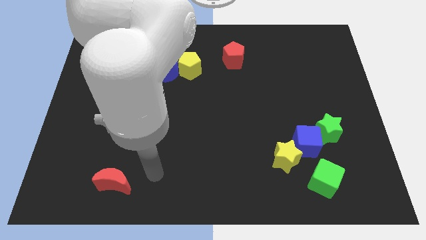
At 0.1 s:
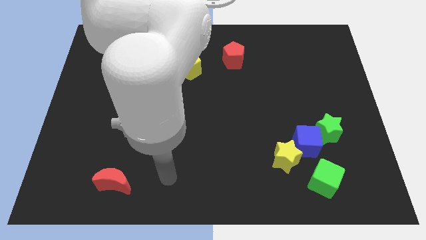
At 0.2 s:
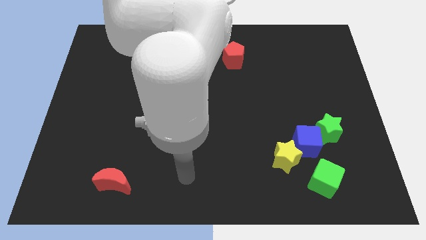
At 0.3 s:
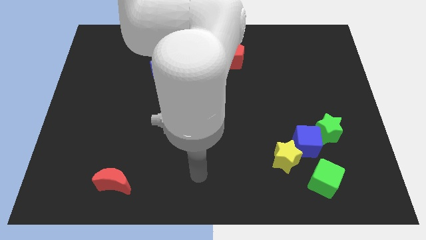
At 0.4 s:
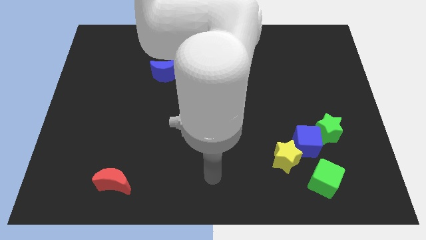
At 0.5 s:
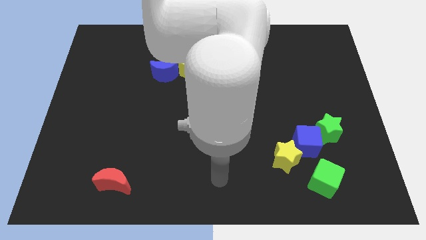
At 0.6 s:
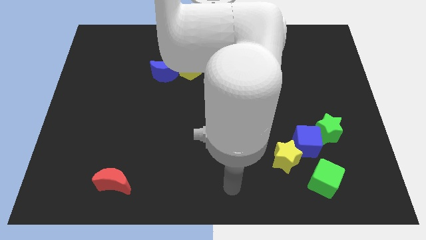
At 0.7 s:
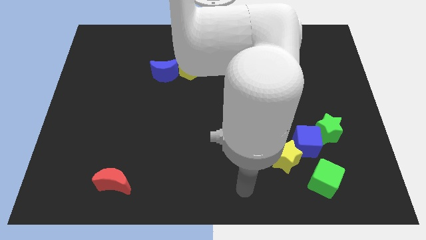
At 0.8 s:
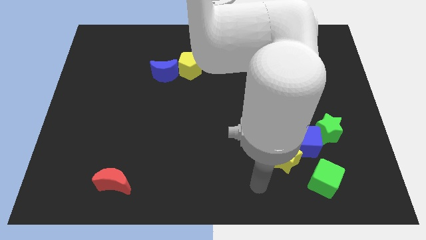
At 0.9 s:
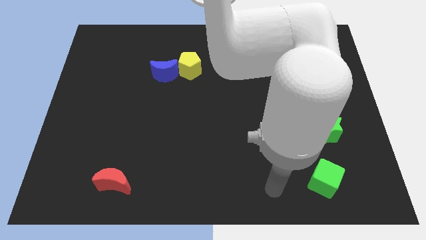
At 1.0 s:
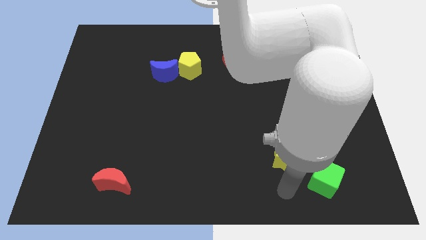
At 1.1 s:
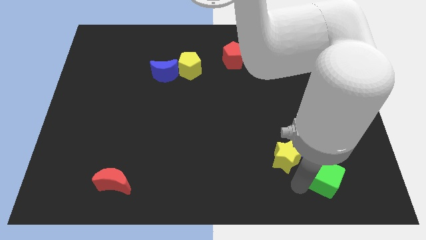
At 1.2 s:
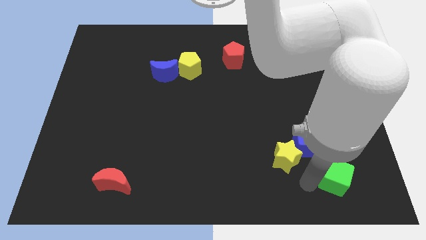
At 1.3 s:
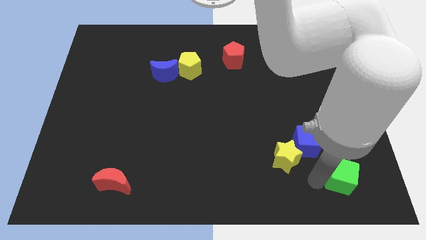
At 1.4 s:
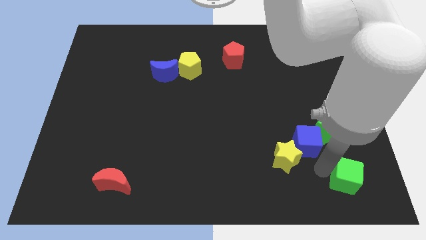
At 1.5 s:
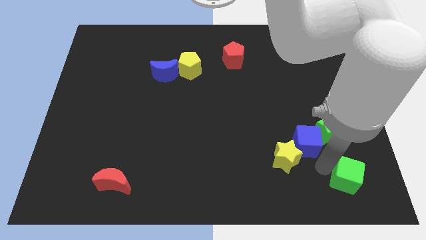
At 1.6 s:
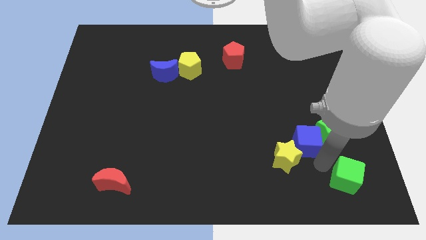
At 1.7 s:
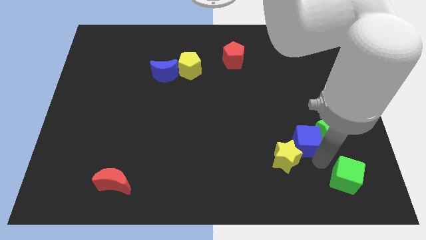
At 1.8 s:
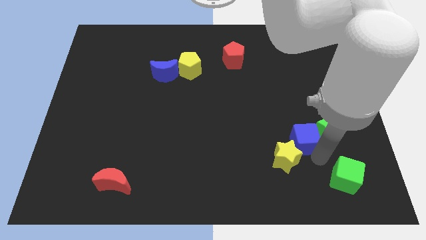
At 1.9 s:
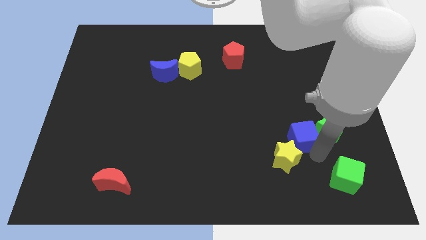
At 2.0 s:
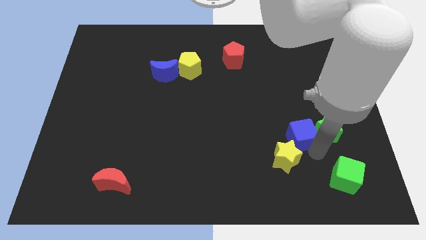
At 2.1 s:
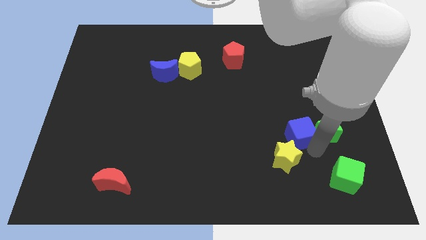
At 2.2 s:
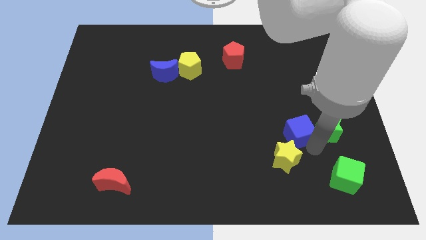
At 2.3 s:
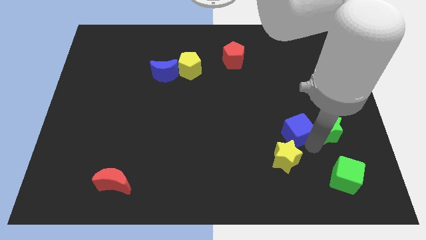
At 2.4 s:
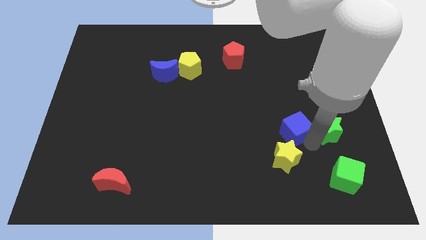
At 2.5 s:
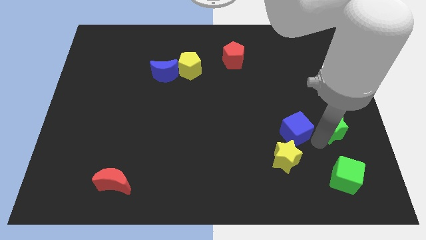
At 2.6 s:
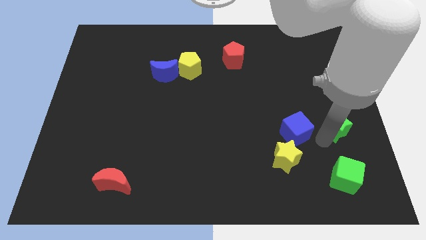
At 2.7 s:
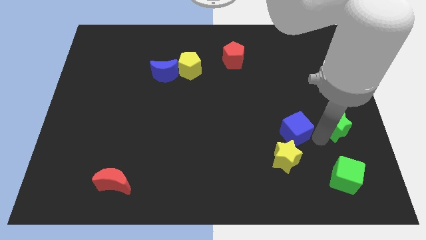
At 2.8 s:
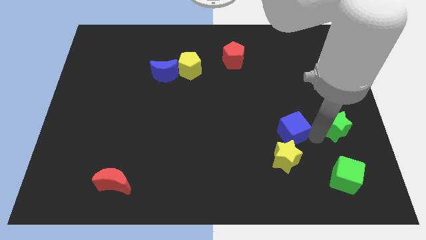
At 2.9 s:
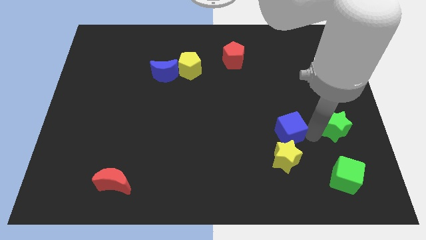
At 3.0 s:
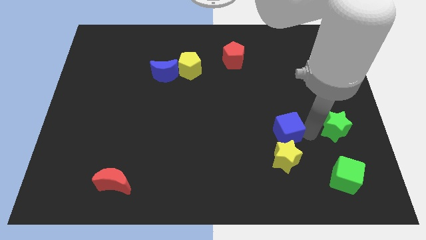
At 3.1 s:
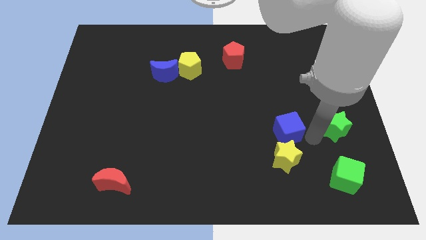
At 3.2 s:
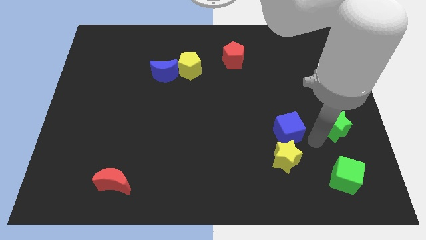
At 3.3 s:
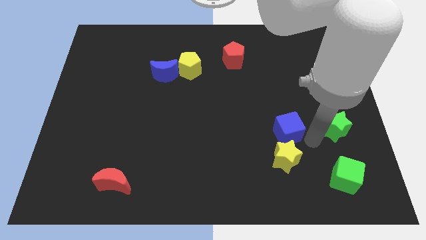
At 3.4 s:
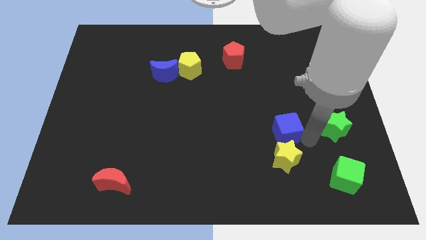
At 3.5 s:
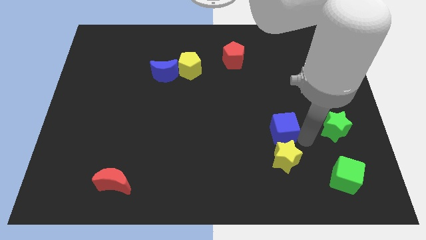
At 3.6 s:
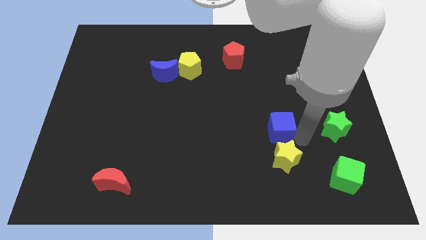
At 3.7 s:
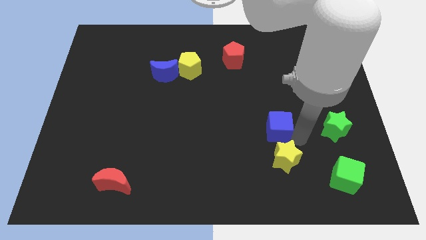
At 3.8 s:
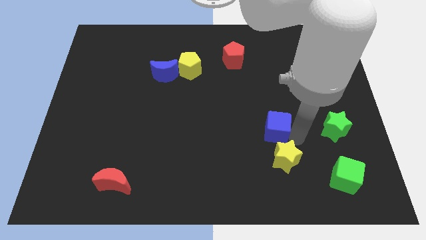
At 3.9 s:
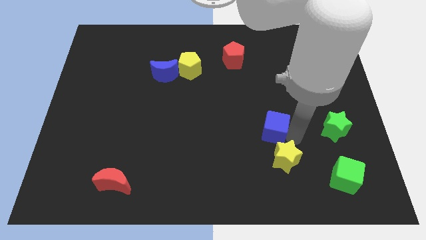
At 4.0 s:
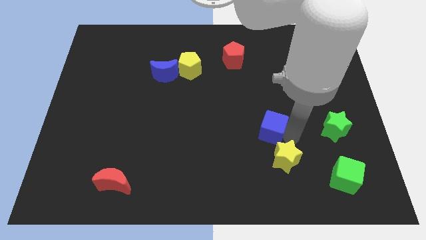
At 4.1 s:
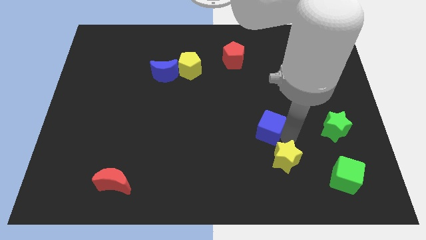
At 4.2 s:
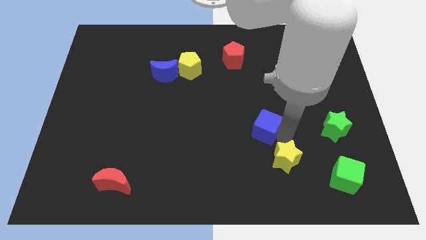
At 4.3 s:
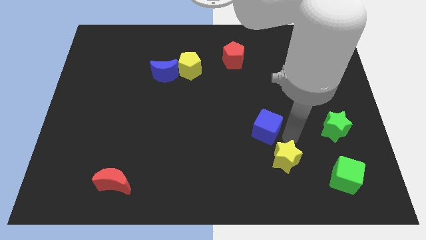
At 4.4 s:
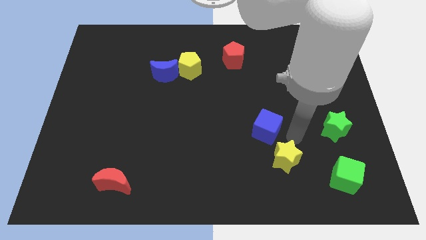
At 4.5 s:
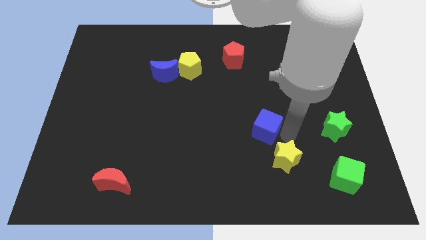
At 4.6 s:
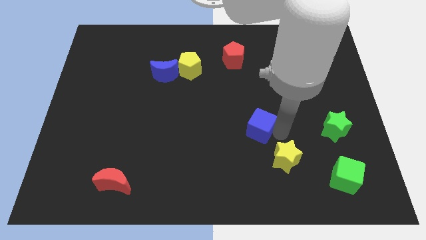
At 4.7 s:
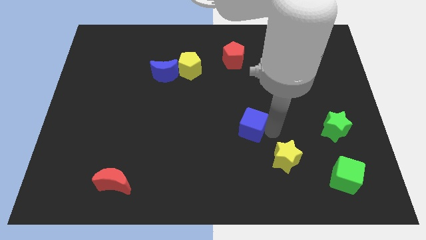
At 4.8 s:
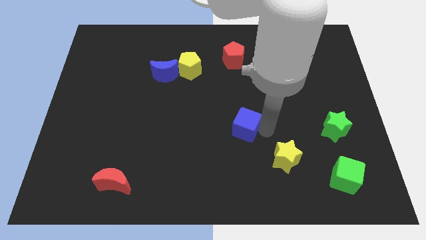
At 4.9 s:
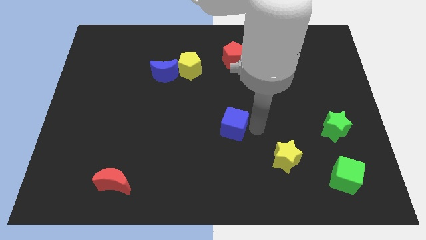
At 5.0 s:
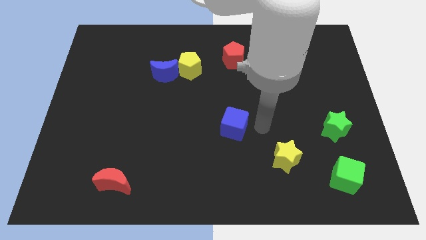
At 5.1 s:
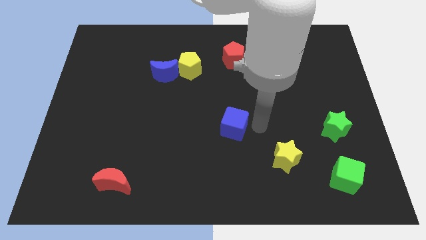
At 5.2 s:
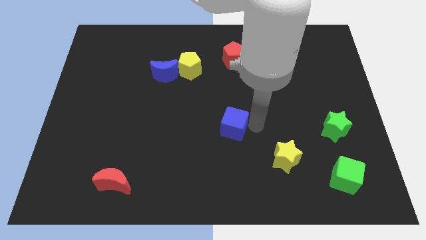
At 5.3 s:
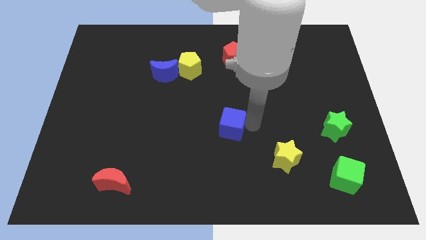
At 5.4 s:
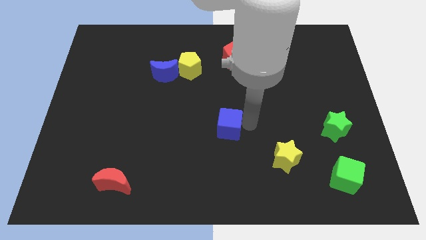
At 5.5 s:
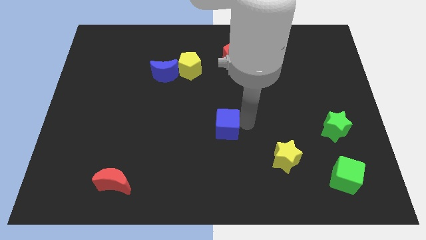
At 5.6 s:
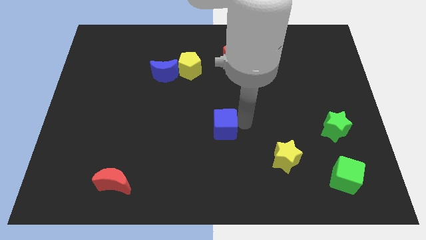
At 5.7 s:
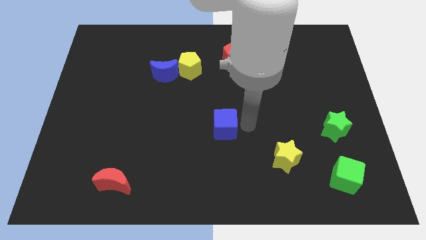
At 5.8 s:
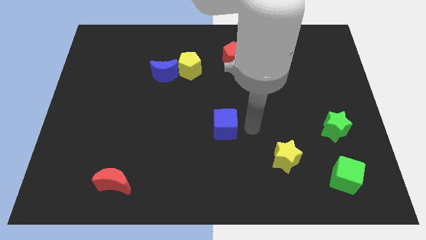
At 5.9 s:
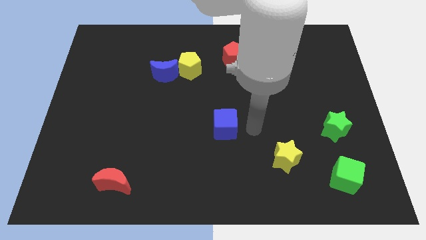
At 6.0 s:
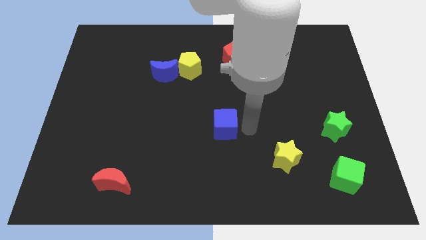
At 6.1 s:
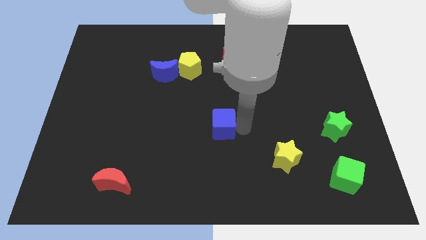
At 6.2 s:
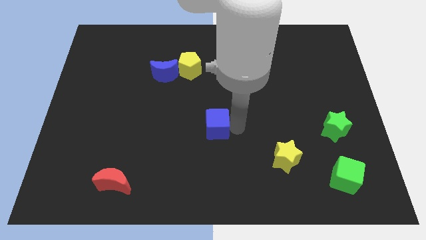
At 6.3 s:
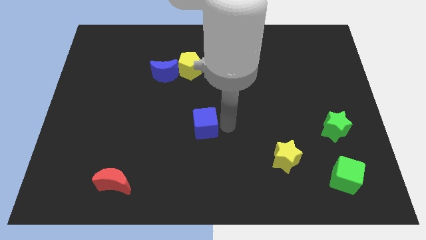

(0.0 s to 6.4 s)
move the blue cube left

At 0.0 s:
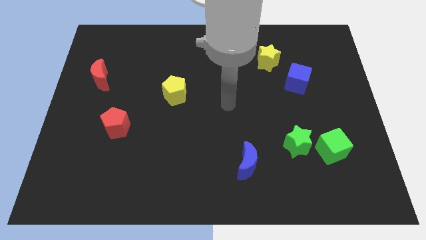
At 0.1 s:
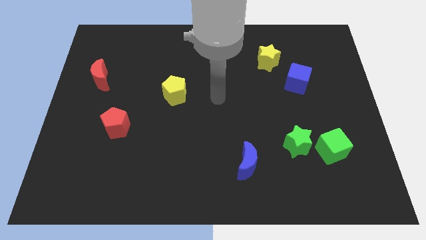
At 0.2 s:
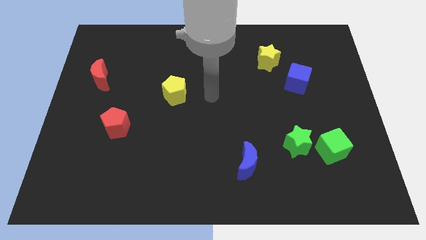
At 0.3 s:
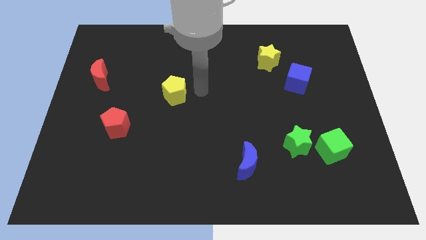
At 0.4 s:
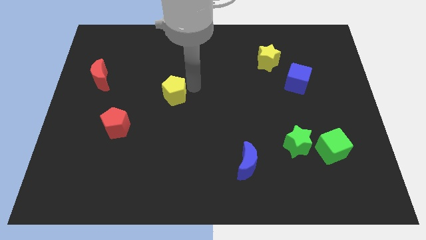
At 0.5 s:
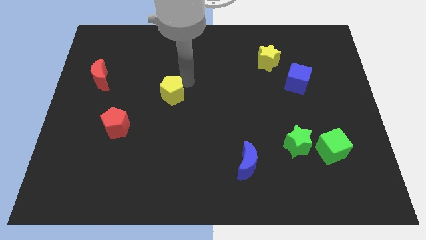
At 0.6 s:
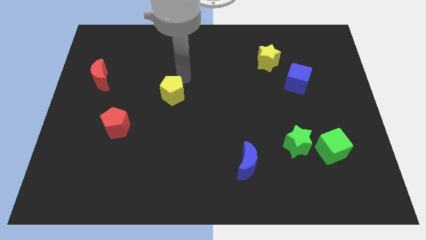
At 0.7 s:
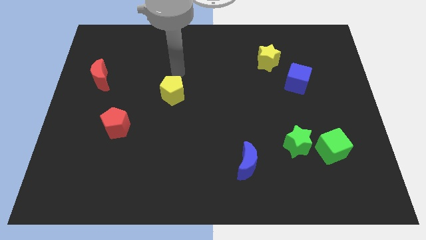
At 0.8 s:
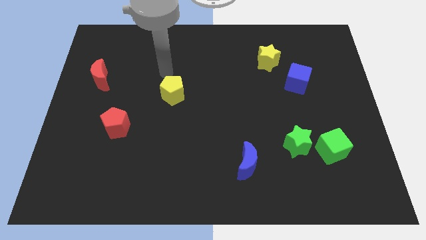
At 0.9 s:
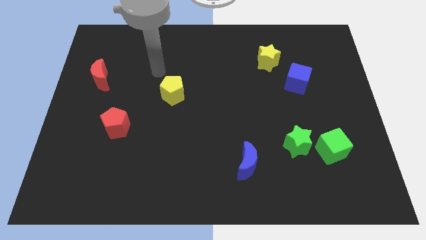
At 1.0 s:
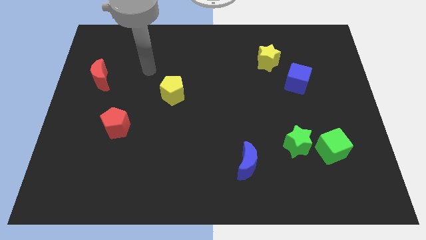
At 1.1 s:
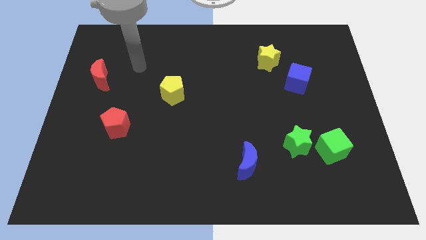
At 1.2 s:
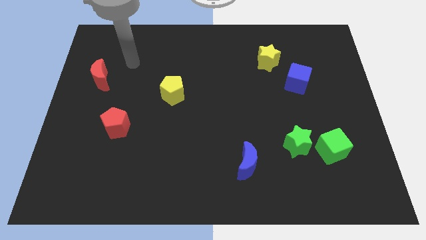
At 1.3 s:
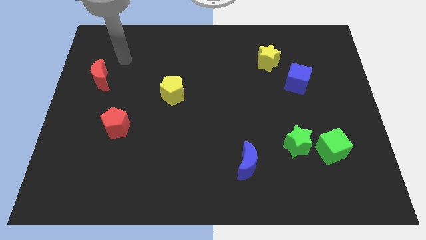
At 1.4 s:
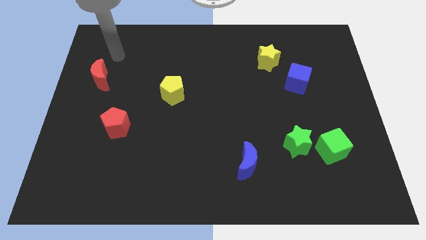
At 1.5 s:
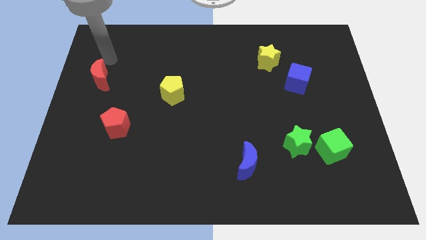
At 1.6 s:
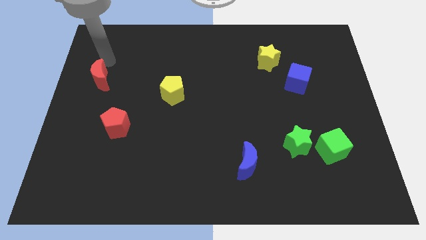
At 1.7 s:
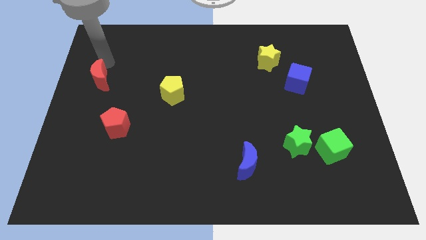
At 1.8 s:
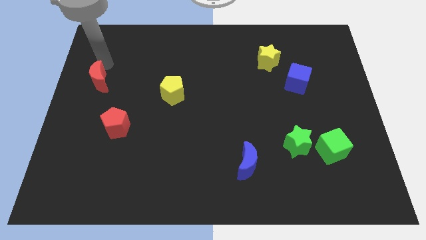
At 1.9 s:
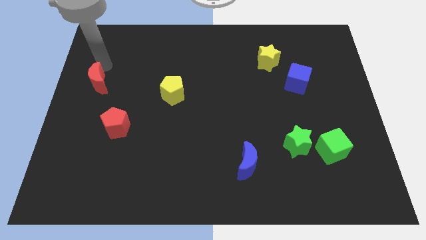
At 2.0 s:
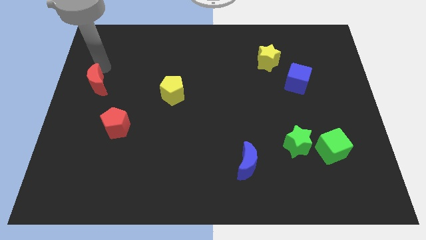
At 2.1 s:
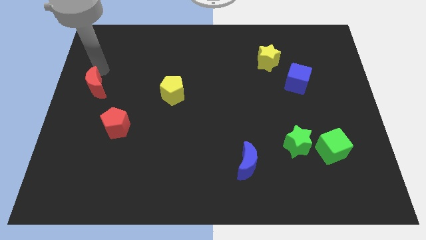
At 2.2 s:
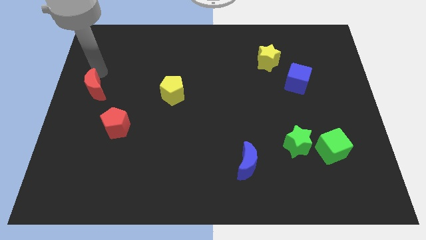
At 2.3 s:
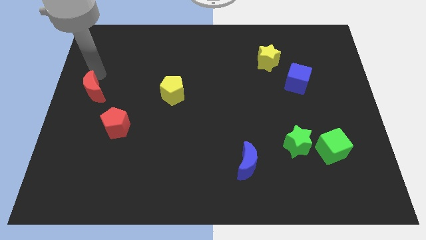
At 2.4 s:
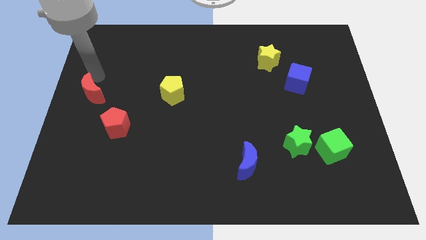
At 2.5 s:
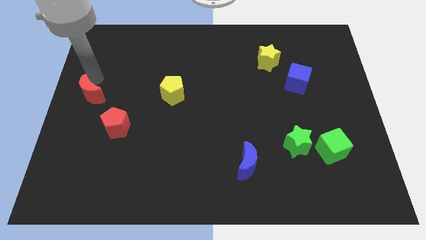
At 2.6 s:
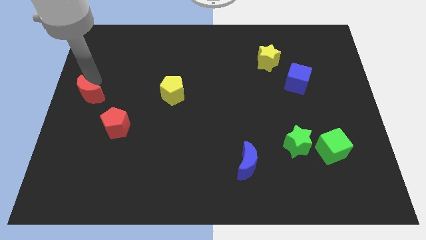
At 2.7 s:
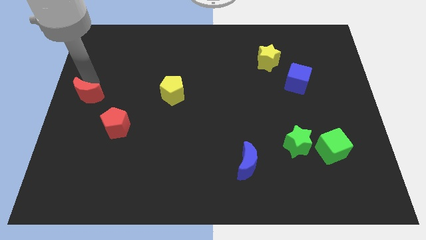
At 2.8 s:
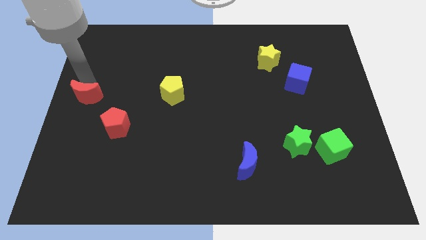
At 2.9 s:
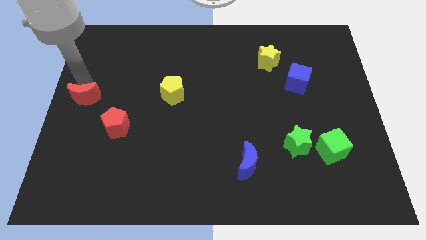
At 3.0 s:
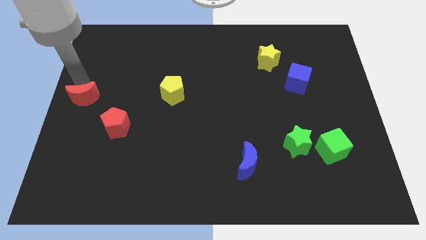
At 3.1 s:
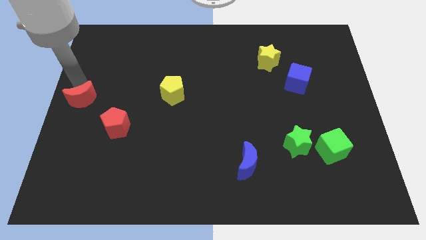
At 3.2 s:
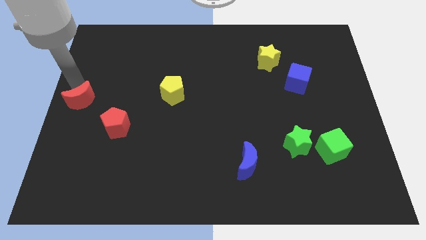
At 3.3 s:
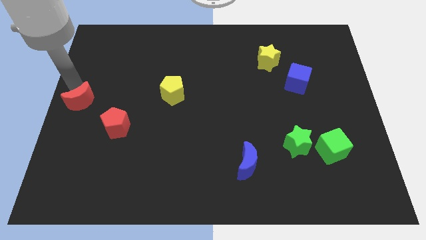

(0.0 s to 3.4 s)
slightly move the red moon down
